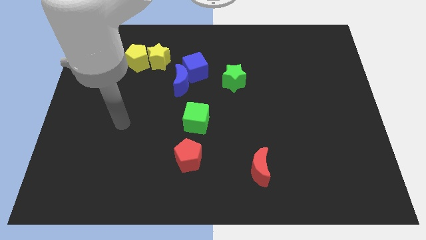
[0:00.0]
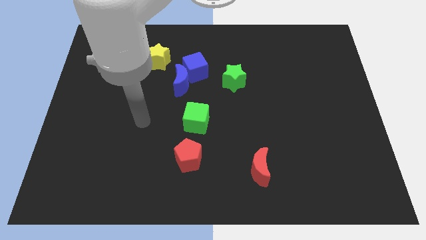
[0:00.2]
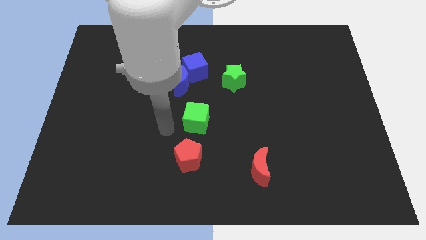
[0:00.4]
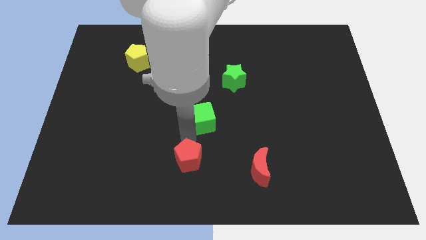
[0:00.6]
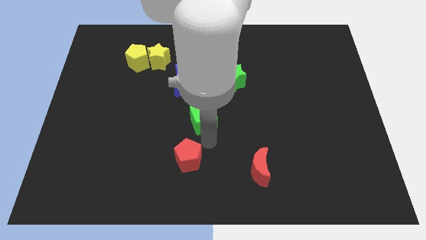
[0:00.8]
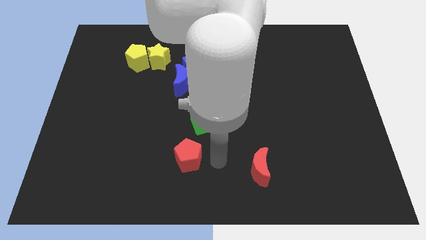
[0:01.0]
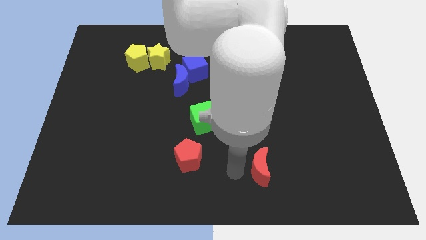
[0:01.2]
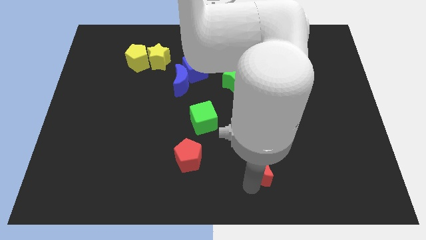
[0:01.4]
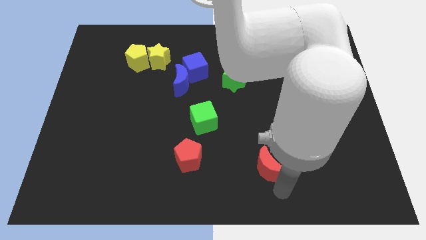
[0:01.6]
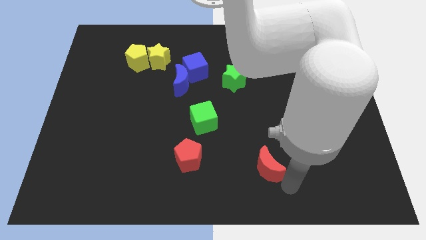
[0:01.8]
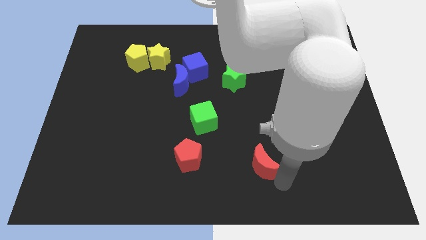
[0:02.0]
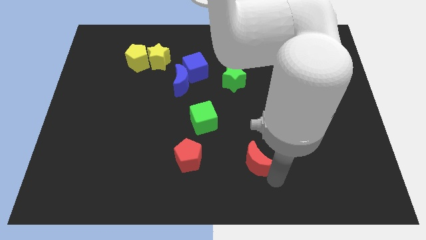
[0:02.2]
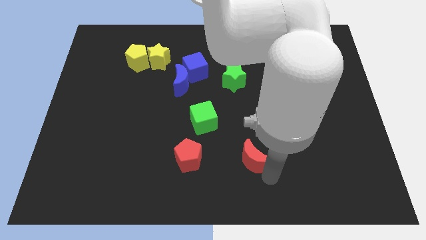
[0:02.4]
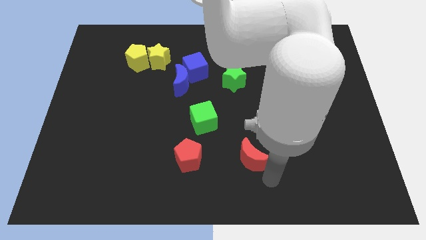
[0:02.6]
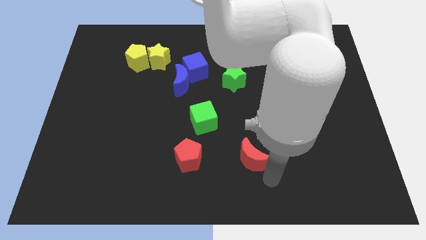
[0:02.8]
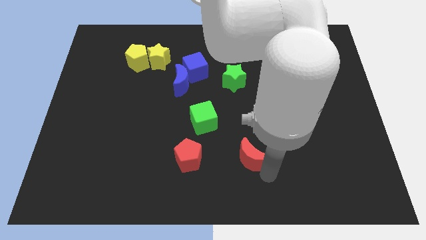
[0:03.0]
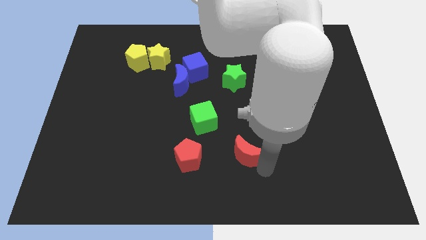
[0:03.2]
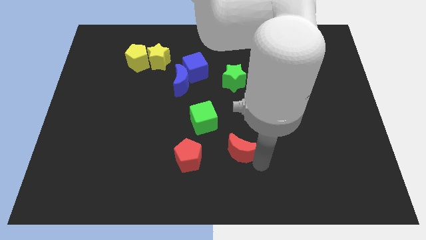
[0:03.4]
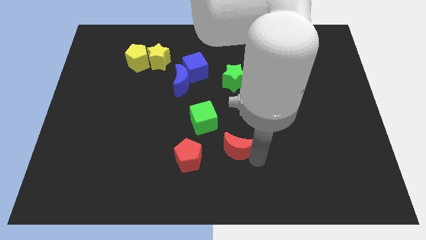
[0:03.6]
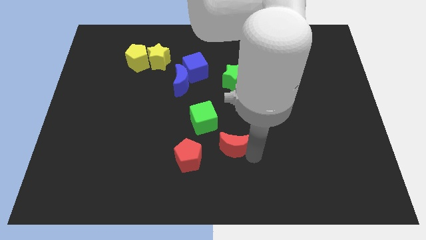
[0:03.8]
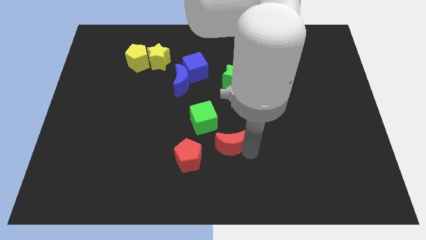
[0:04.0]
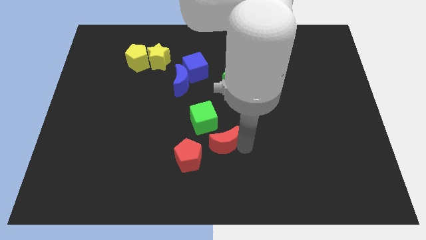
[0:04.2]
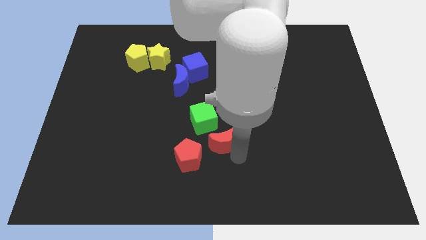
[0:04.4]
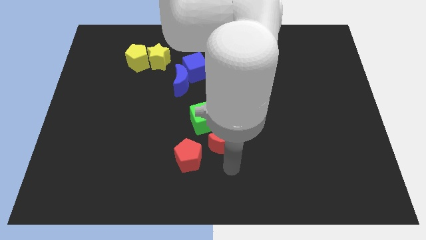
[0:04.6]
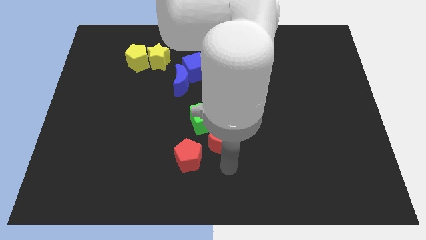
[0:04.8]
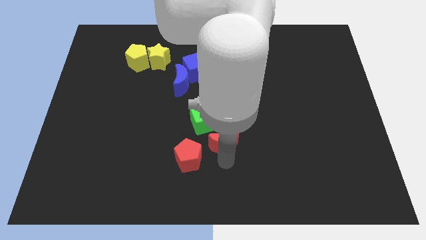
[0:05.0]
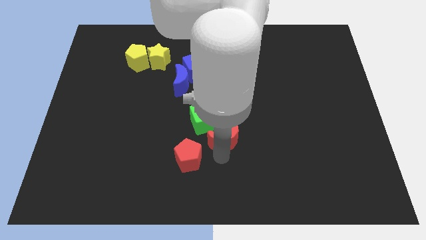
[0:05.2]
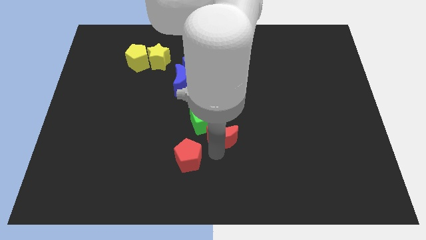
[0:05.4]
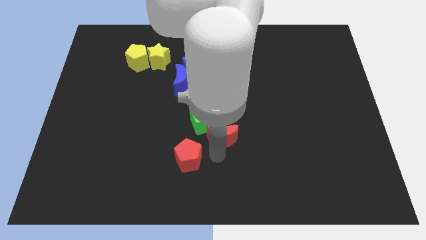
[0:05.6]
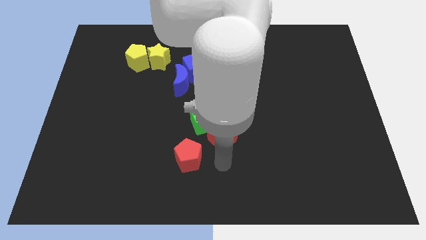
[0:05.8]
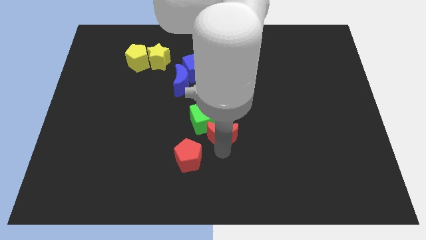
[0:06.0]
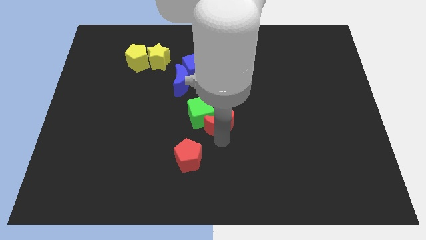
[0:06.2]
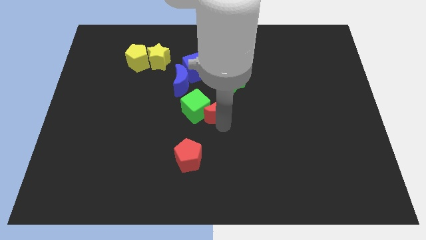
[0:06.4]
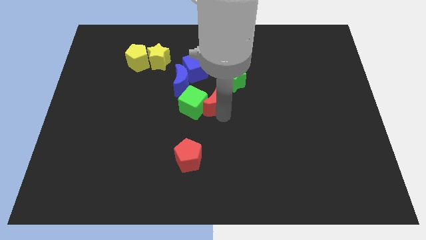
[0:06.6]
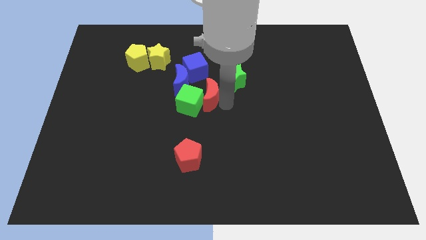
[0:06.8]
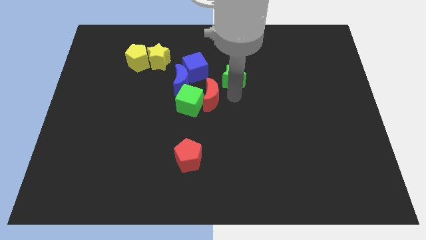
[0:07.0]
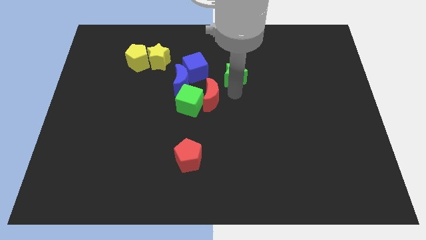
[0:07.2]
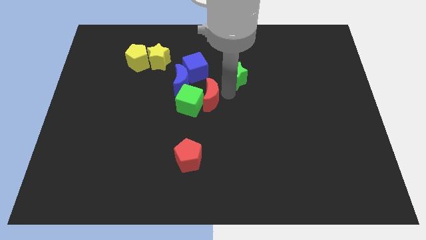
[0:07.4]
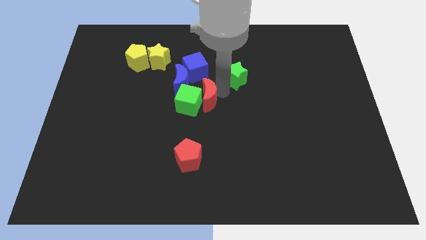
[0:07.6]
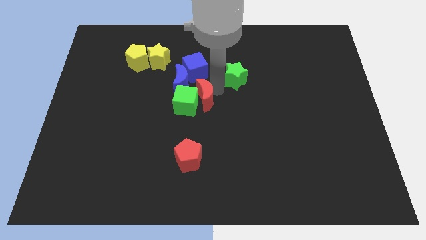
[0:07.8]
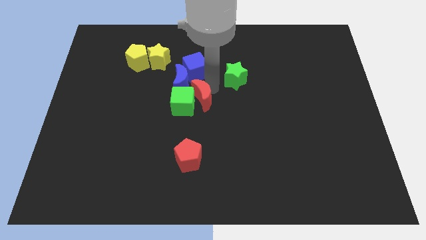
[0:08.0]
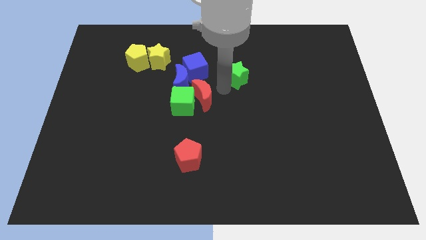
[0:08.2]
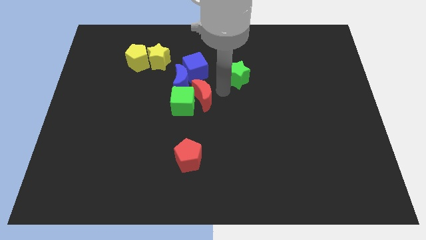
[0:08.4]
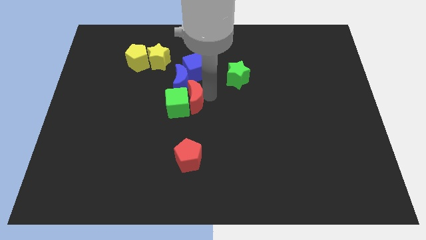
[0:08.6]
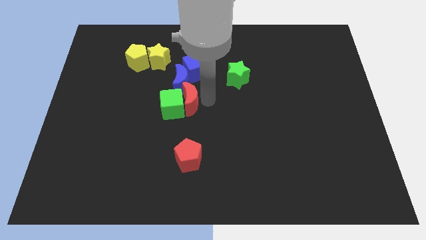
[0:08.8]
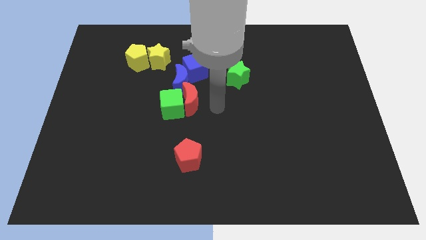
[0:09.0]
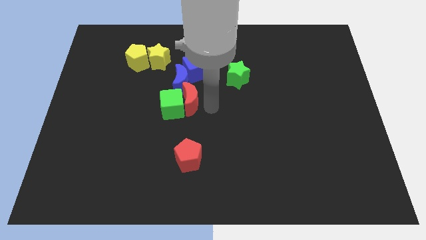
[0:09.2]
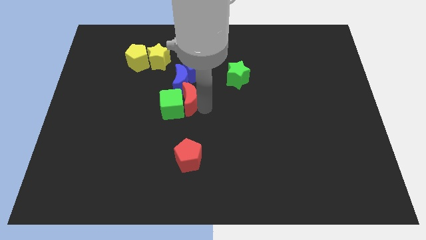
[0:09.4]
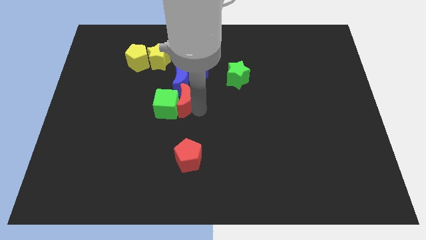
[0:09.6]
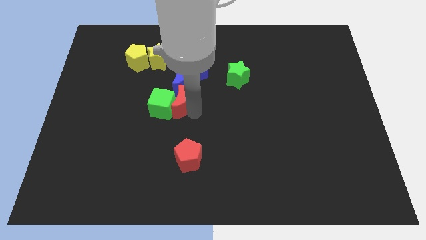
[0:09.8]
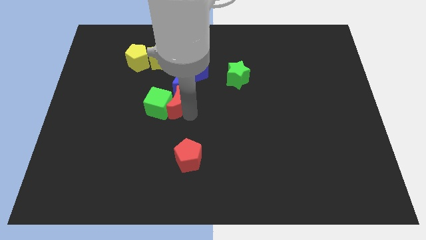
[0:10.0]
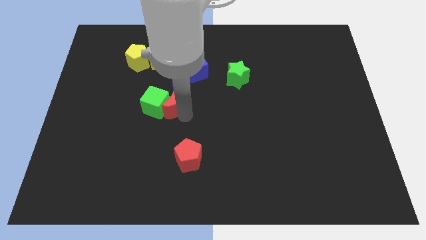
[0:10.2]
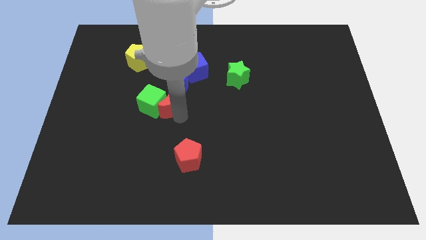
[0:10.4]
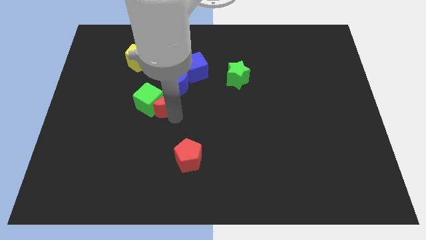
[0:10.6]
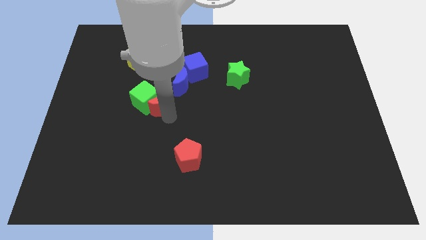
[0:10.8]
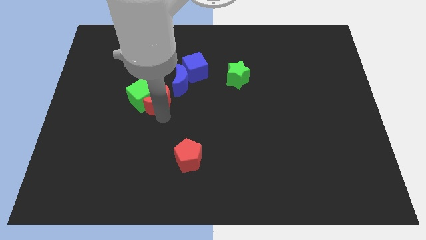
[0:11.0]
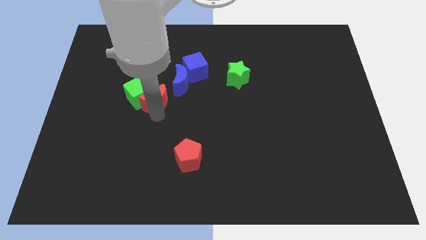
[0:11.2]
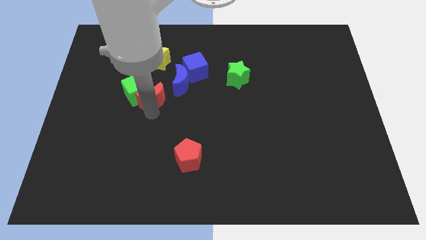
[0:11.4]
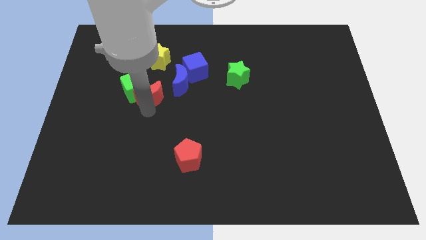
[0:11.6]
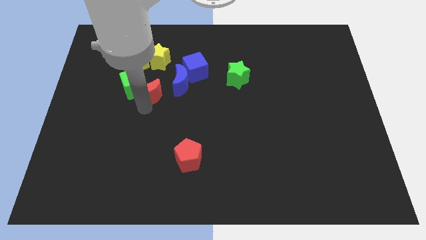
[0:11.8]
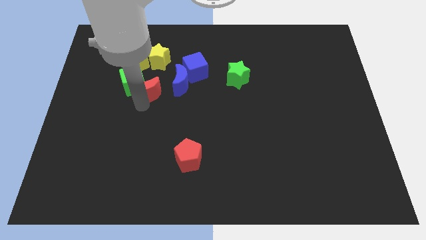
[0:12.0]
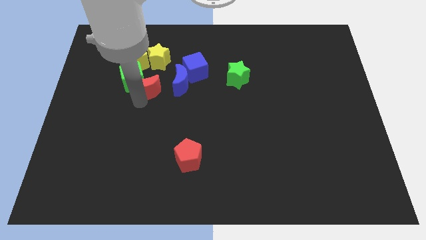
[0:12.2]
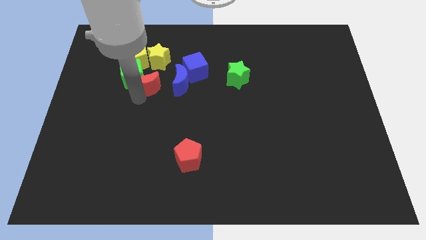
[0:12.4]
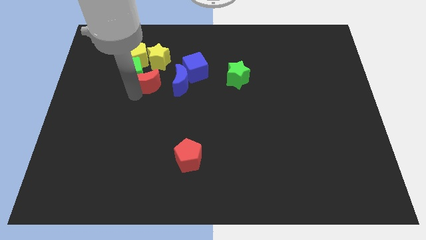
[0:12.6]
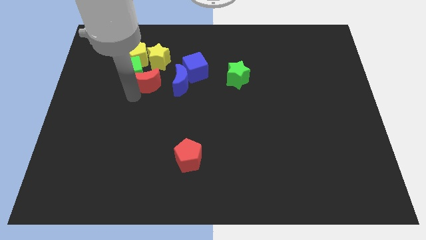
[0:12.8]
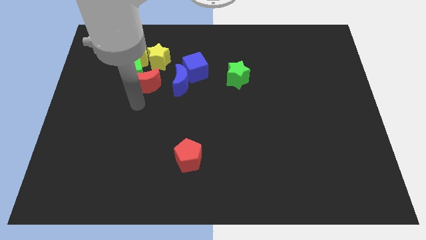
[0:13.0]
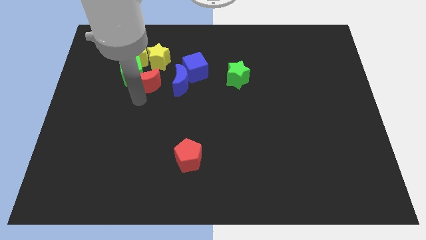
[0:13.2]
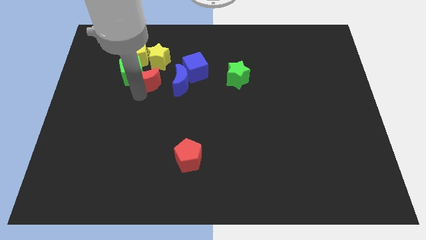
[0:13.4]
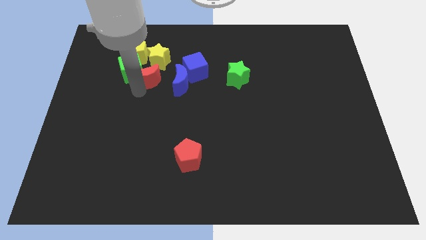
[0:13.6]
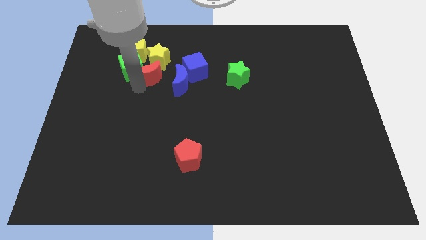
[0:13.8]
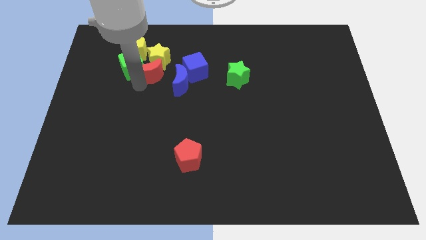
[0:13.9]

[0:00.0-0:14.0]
put the red moon towards the yellow star

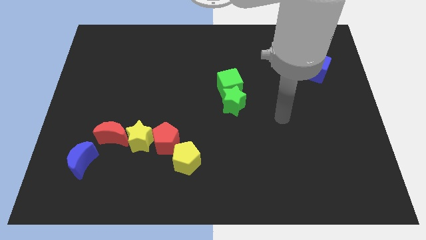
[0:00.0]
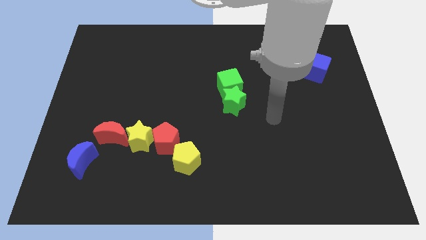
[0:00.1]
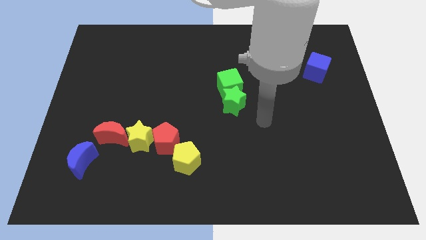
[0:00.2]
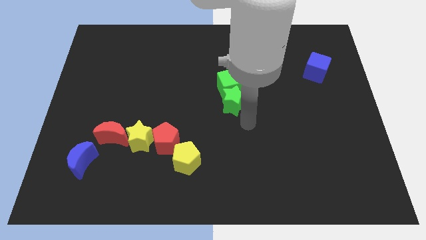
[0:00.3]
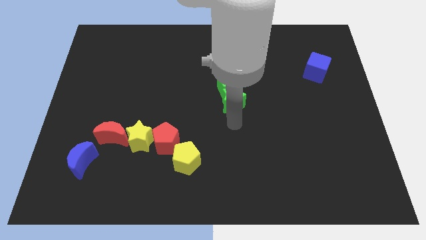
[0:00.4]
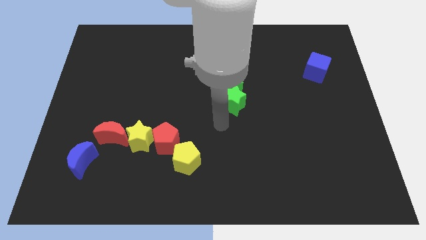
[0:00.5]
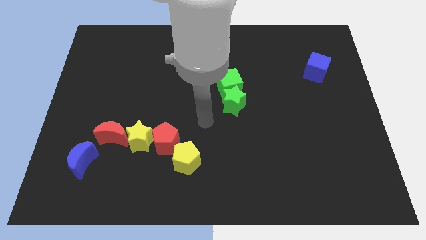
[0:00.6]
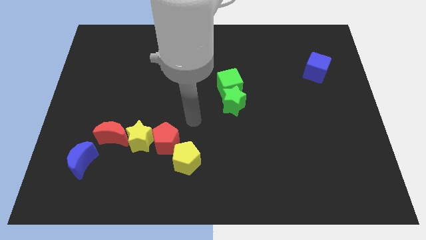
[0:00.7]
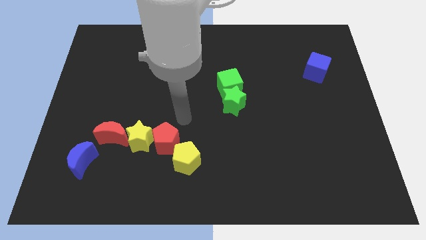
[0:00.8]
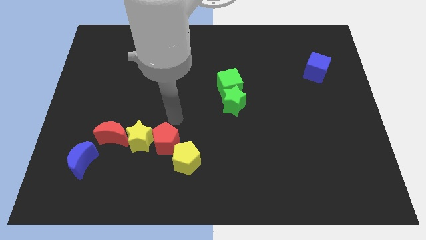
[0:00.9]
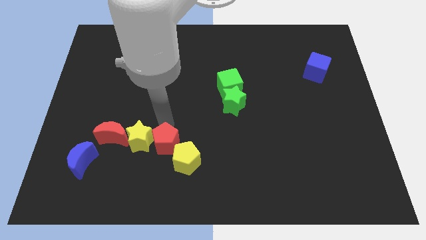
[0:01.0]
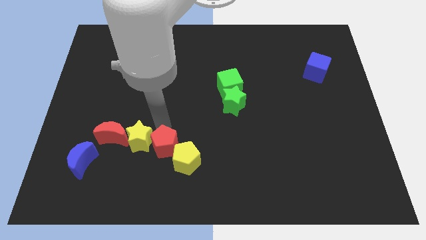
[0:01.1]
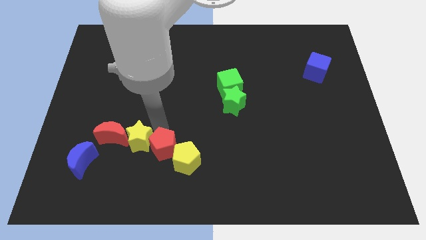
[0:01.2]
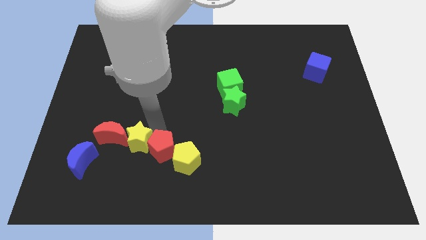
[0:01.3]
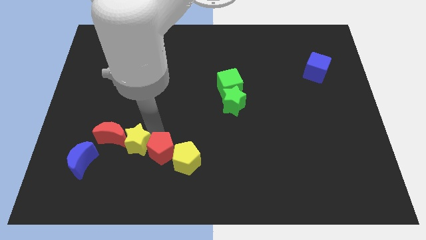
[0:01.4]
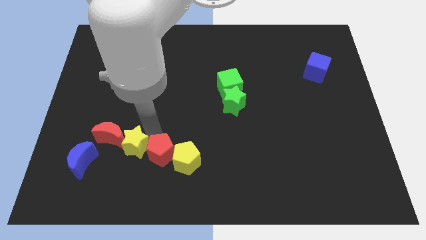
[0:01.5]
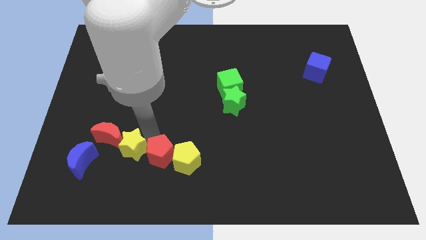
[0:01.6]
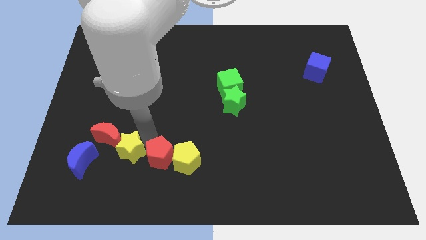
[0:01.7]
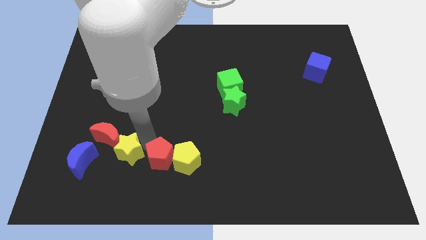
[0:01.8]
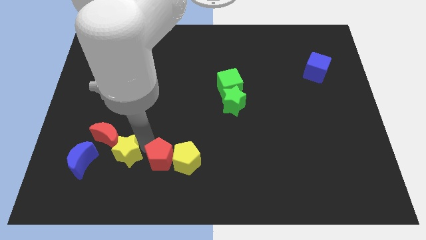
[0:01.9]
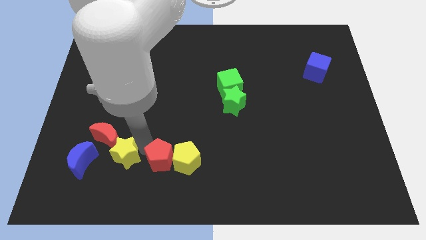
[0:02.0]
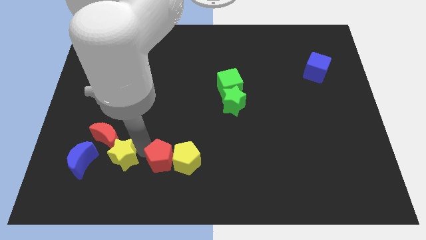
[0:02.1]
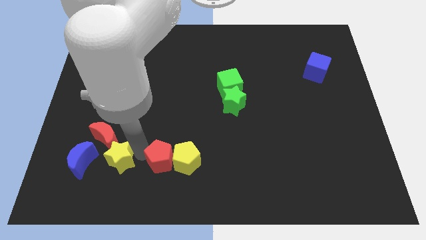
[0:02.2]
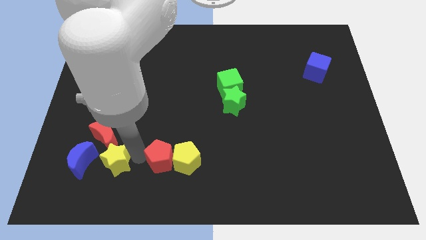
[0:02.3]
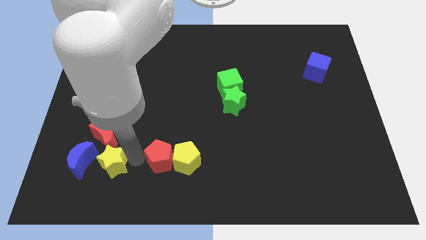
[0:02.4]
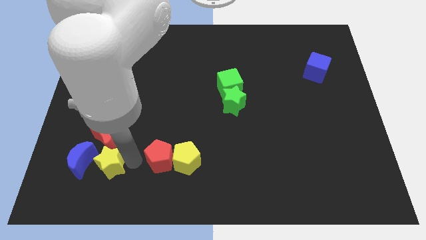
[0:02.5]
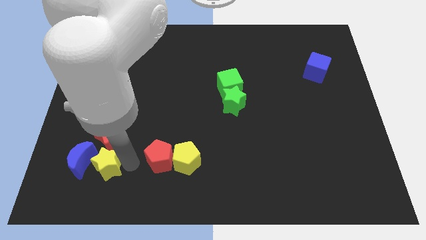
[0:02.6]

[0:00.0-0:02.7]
slide the yellow star close to the blue moon
